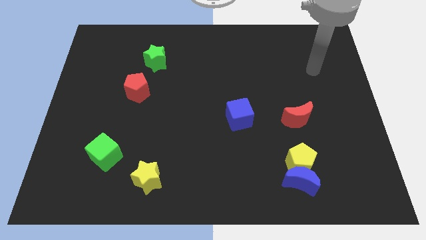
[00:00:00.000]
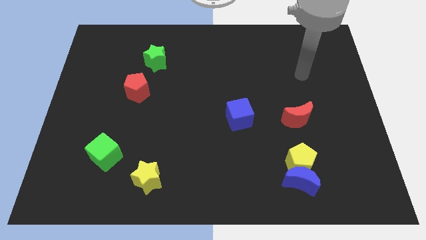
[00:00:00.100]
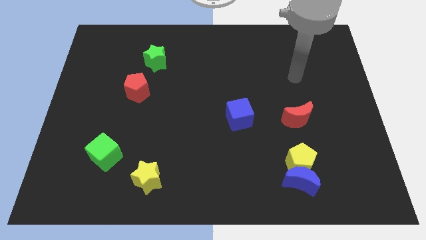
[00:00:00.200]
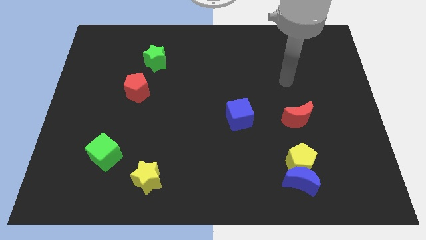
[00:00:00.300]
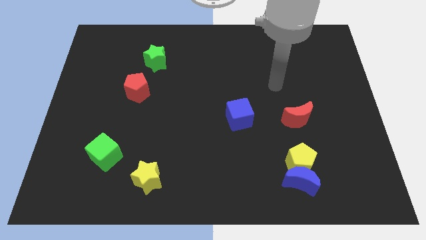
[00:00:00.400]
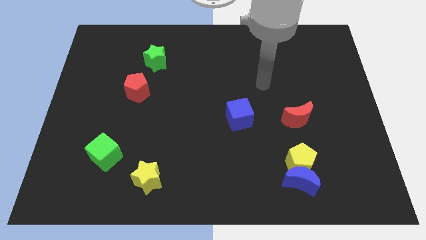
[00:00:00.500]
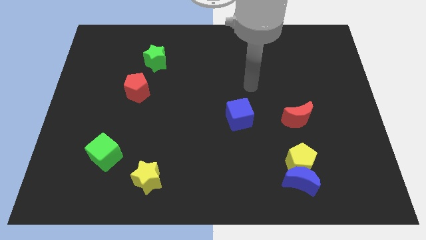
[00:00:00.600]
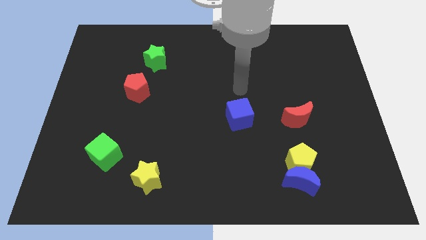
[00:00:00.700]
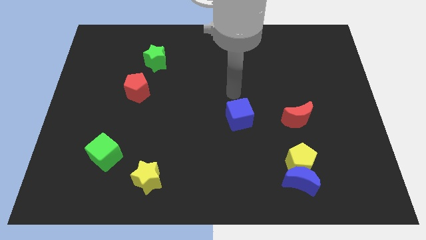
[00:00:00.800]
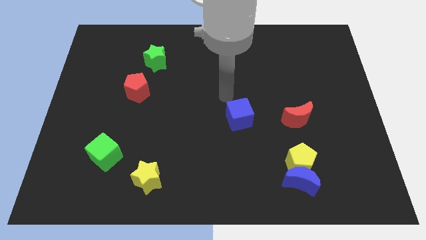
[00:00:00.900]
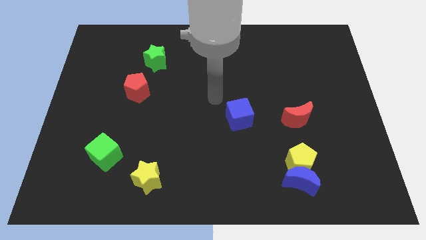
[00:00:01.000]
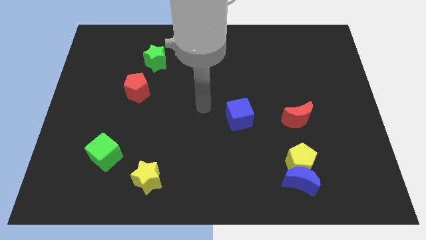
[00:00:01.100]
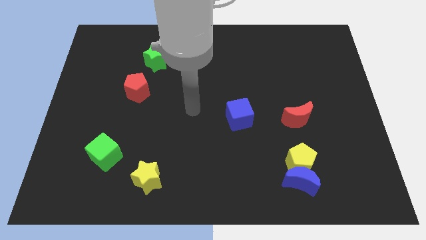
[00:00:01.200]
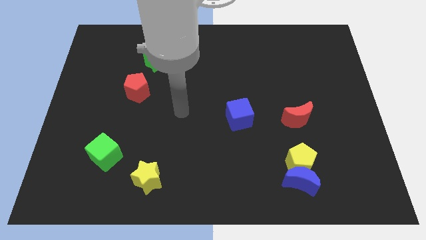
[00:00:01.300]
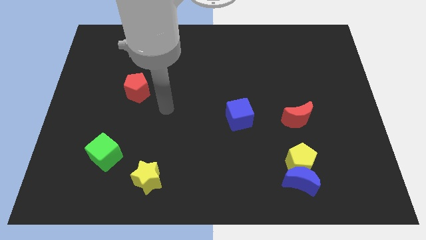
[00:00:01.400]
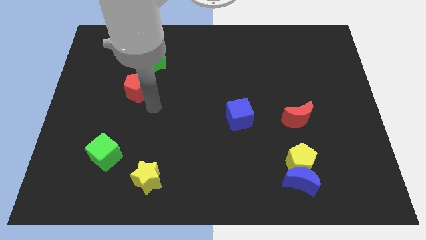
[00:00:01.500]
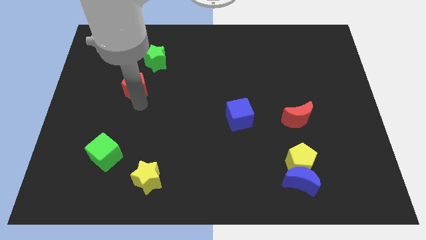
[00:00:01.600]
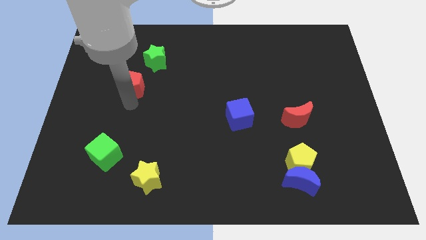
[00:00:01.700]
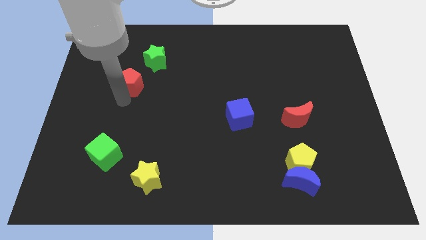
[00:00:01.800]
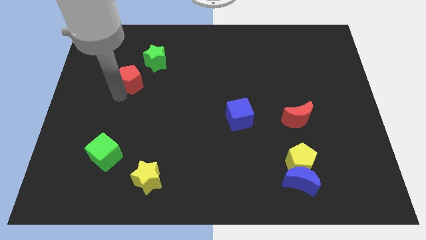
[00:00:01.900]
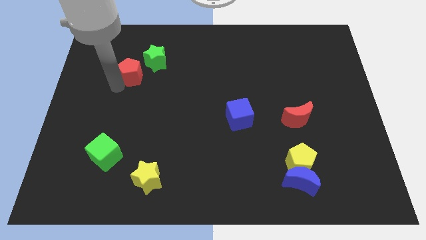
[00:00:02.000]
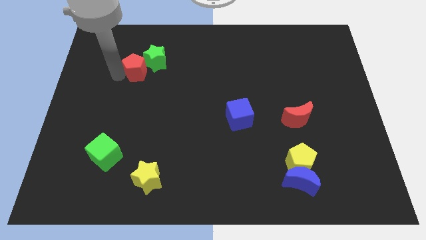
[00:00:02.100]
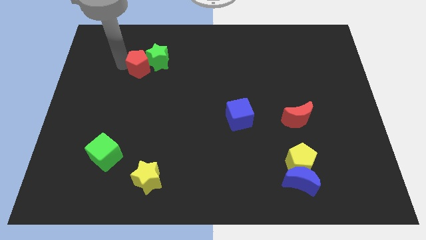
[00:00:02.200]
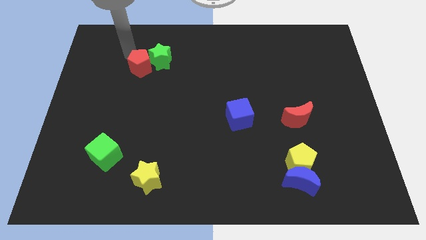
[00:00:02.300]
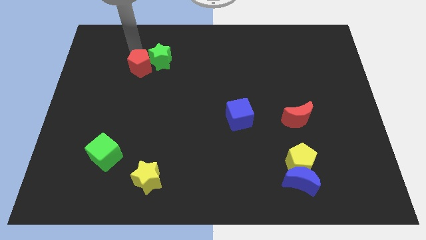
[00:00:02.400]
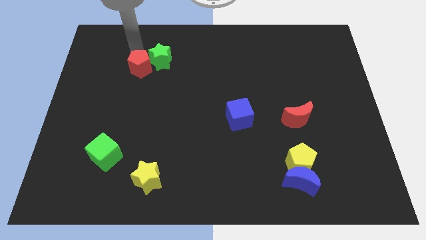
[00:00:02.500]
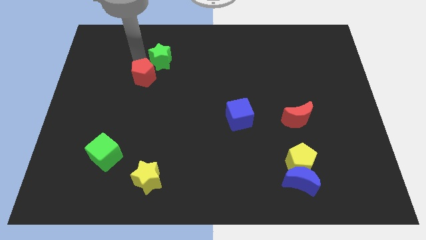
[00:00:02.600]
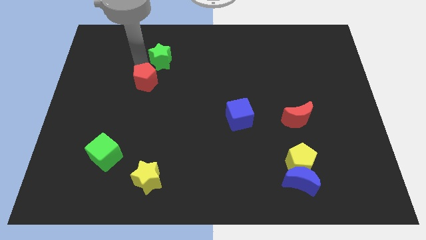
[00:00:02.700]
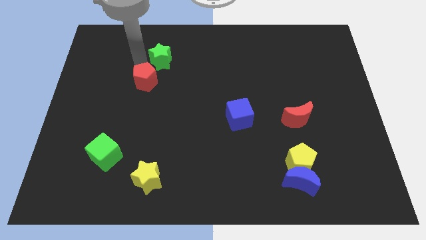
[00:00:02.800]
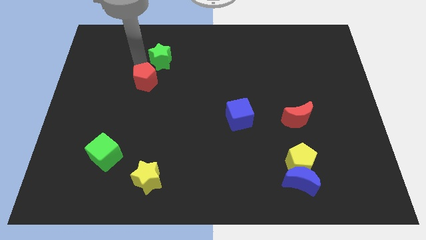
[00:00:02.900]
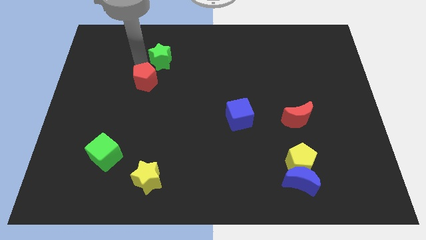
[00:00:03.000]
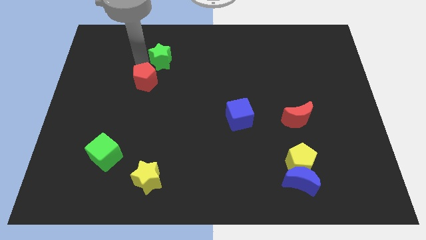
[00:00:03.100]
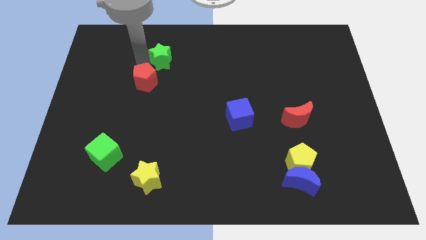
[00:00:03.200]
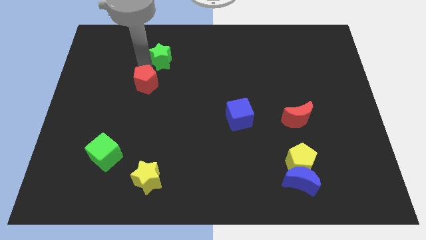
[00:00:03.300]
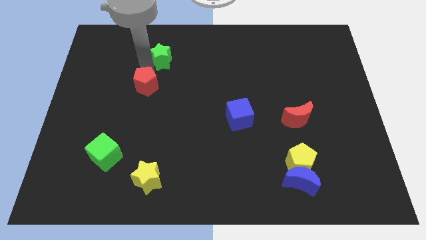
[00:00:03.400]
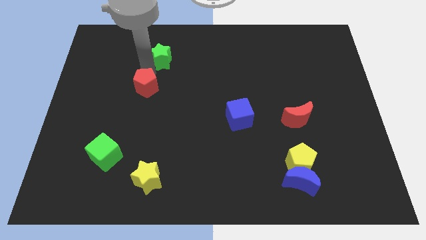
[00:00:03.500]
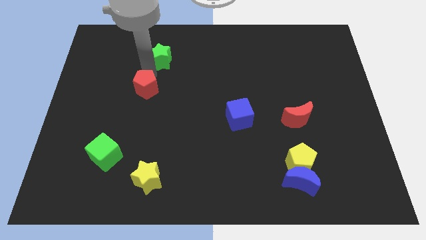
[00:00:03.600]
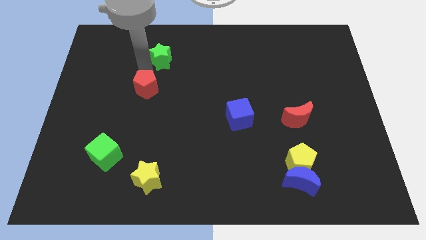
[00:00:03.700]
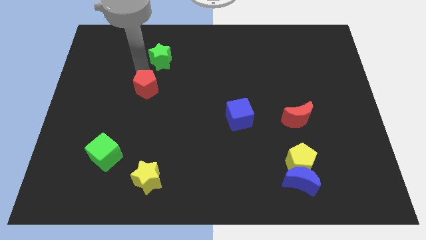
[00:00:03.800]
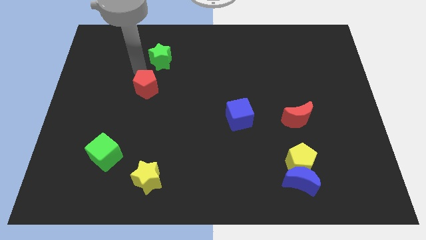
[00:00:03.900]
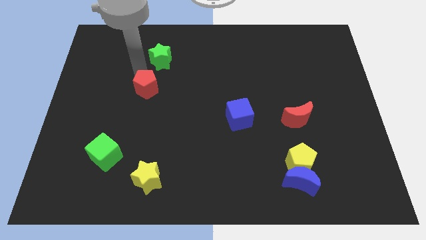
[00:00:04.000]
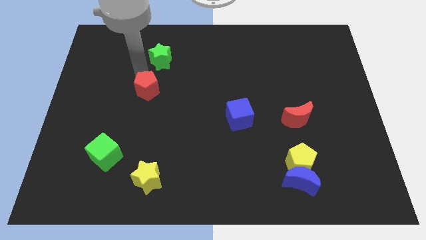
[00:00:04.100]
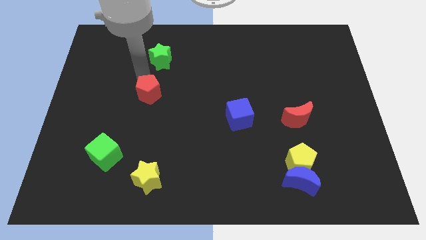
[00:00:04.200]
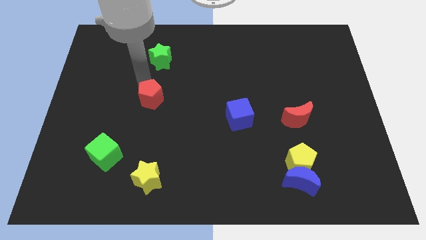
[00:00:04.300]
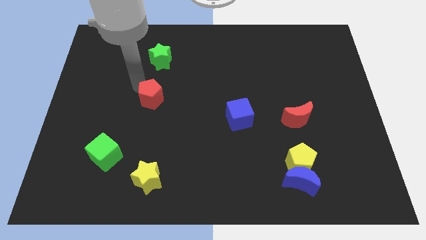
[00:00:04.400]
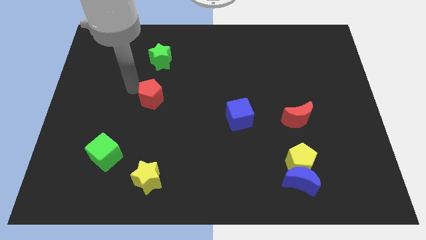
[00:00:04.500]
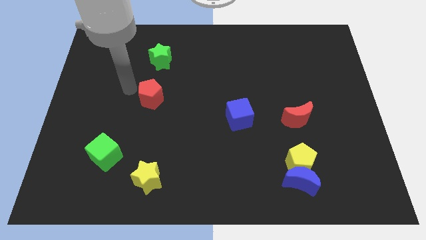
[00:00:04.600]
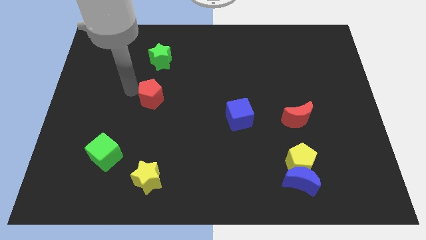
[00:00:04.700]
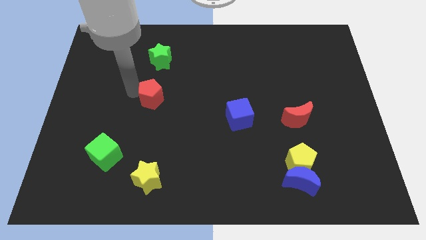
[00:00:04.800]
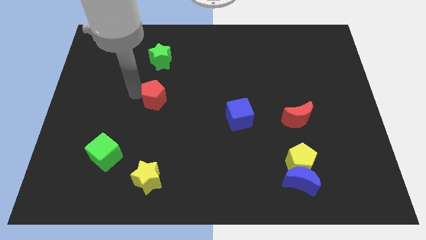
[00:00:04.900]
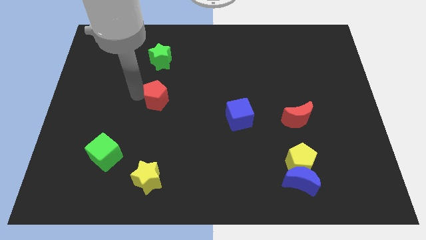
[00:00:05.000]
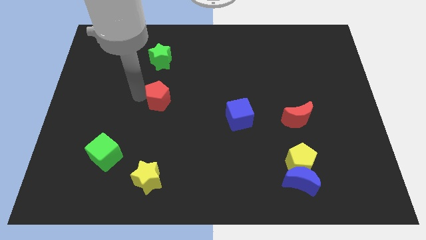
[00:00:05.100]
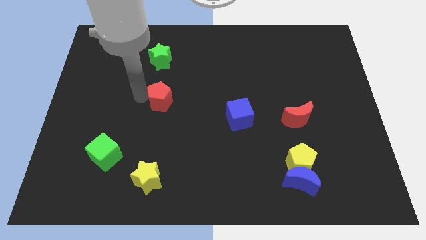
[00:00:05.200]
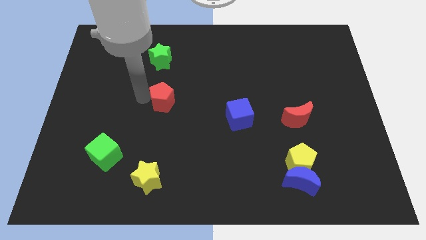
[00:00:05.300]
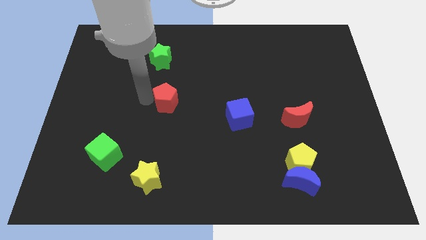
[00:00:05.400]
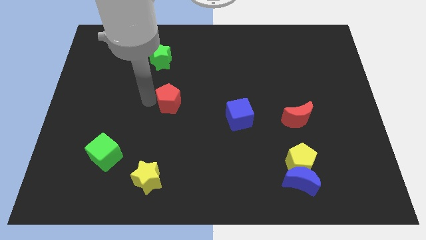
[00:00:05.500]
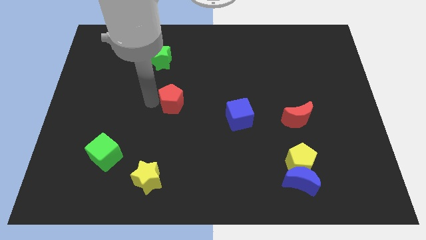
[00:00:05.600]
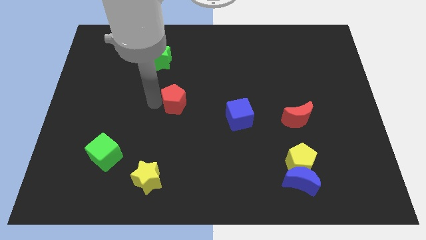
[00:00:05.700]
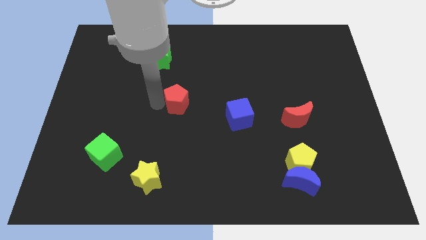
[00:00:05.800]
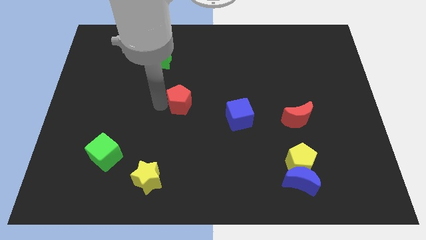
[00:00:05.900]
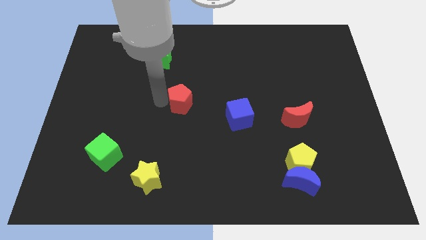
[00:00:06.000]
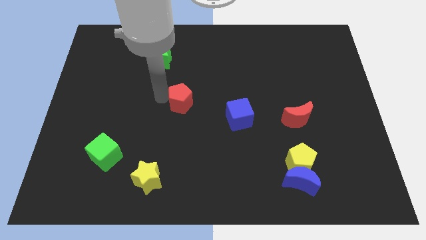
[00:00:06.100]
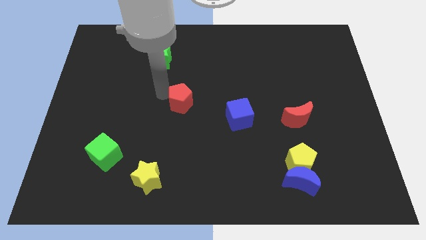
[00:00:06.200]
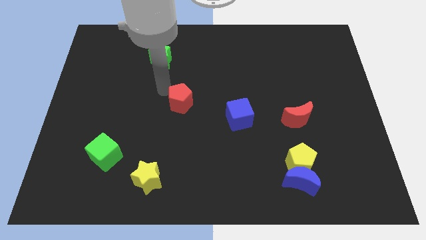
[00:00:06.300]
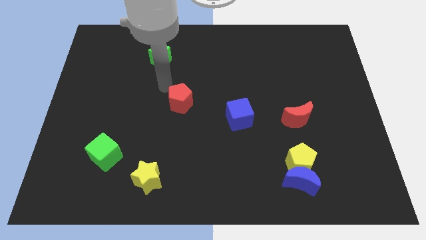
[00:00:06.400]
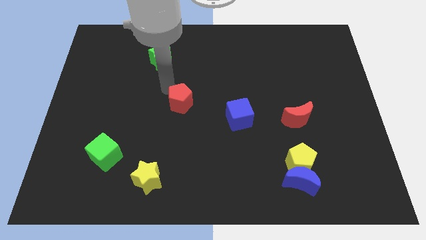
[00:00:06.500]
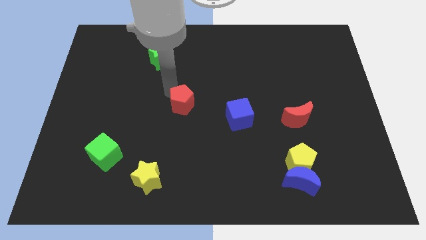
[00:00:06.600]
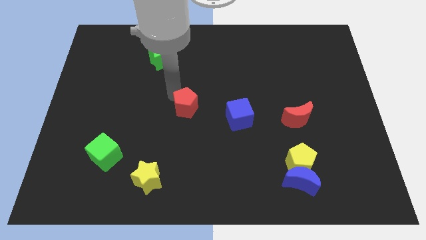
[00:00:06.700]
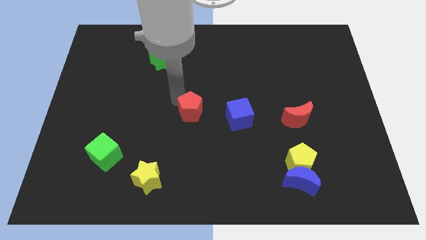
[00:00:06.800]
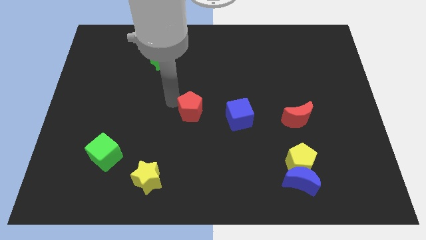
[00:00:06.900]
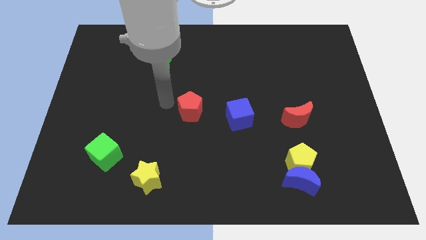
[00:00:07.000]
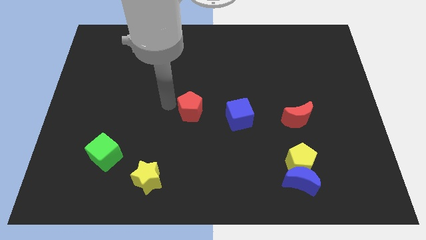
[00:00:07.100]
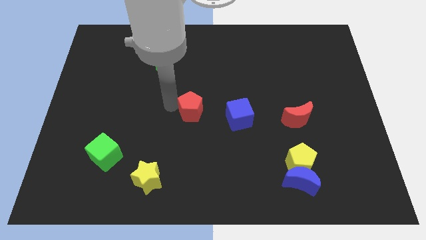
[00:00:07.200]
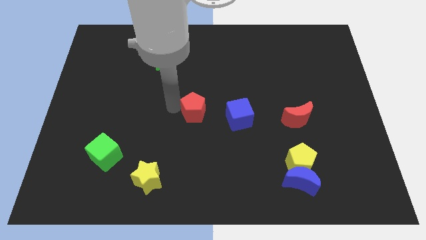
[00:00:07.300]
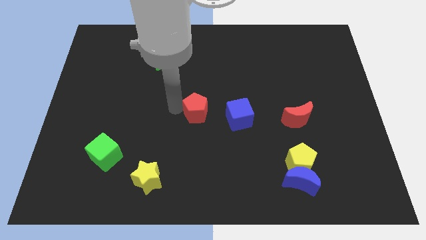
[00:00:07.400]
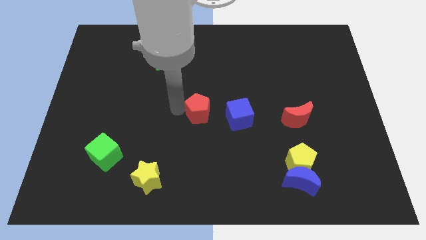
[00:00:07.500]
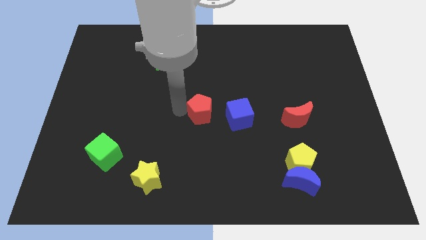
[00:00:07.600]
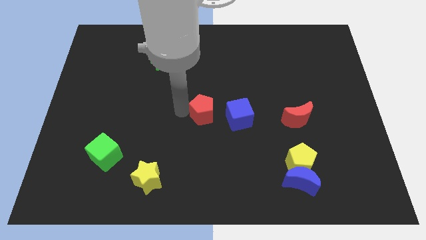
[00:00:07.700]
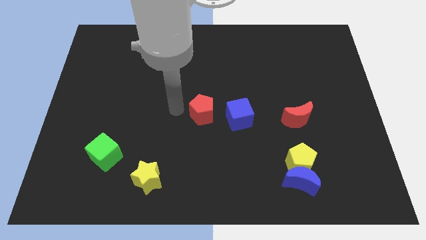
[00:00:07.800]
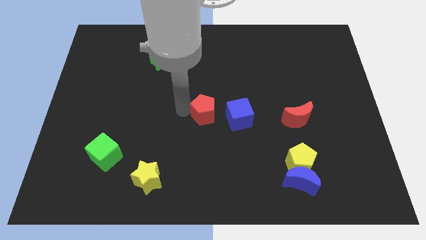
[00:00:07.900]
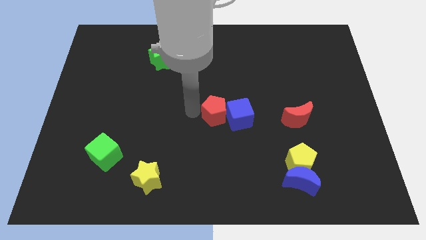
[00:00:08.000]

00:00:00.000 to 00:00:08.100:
slide the red pentagon to the blue cube
